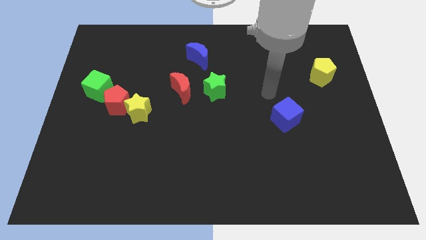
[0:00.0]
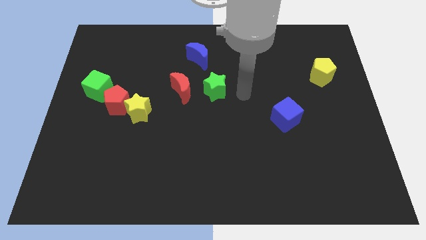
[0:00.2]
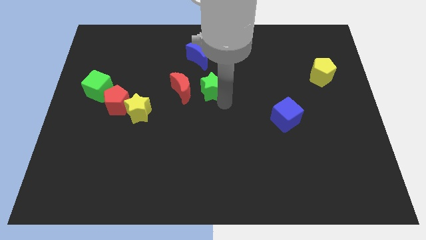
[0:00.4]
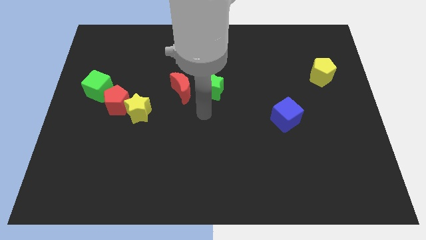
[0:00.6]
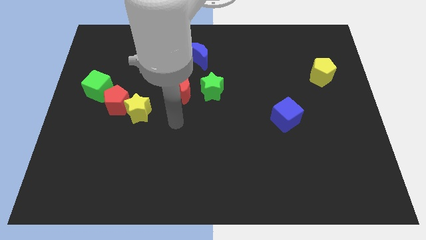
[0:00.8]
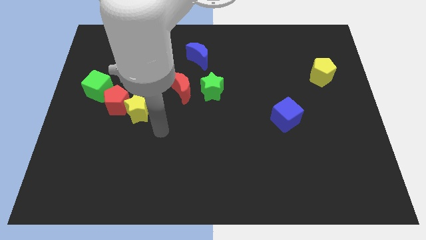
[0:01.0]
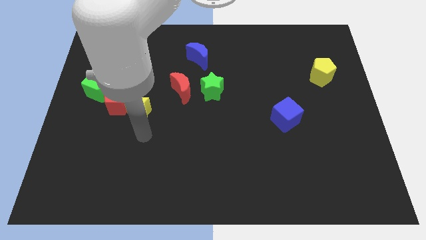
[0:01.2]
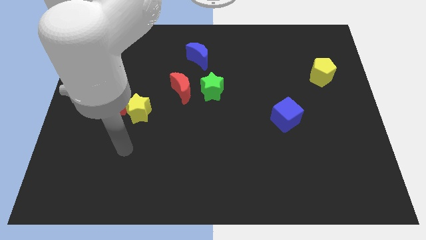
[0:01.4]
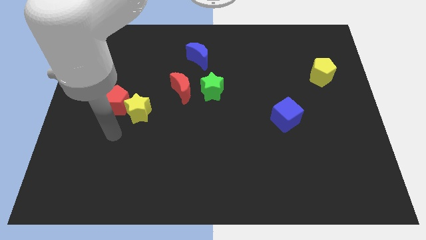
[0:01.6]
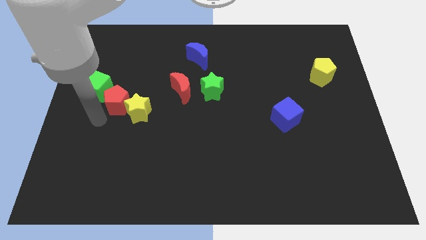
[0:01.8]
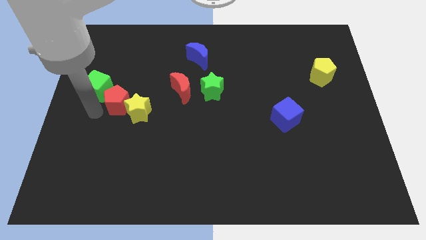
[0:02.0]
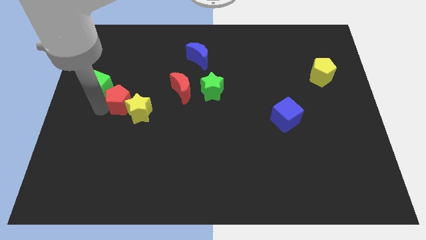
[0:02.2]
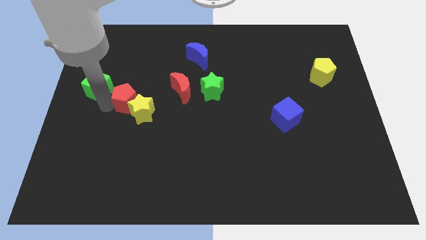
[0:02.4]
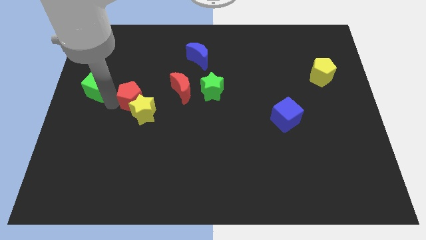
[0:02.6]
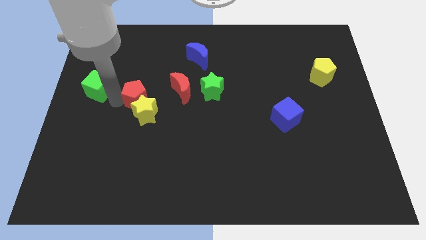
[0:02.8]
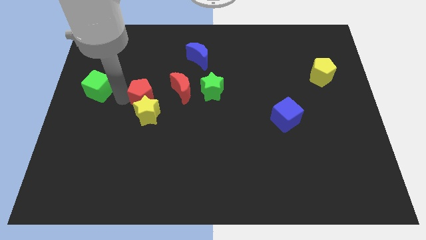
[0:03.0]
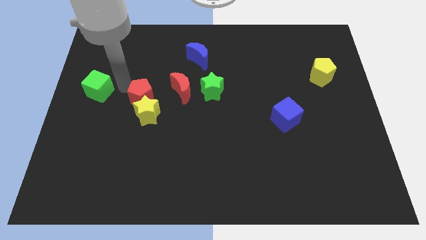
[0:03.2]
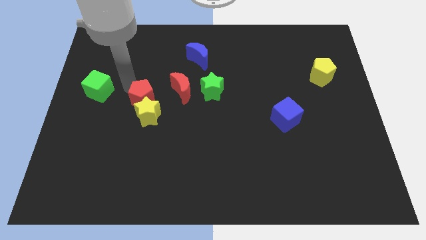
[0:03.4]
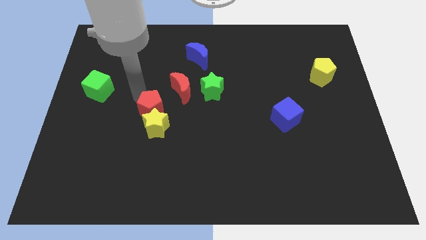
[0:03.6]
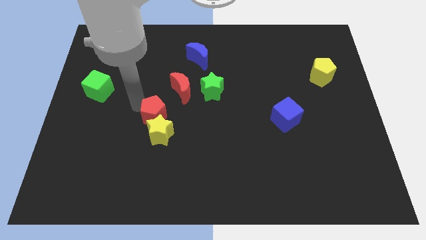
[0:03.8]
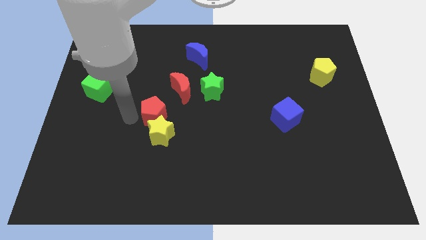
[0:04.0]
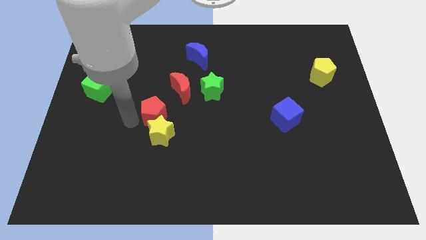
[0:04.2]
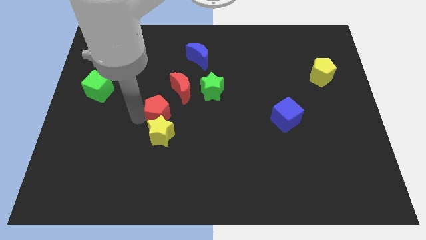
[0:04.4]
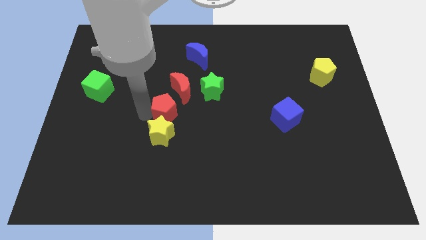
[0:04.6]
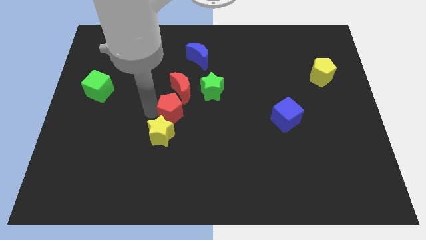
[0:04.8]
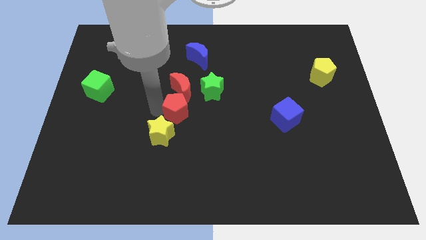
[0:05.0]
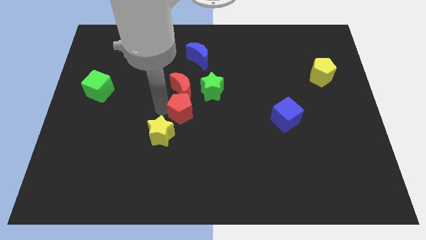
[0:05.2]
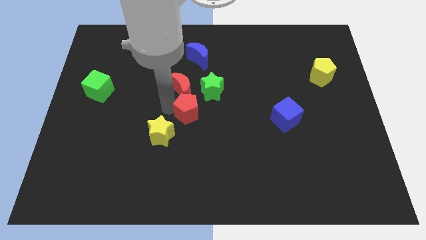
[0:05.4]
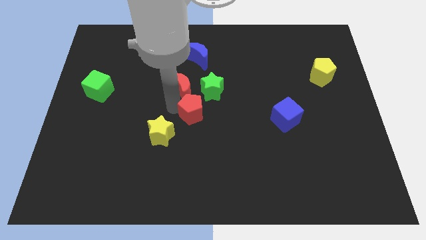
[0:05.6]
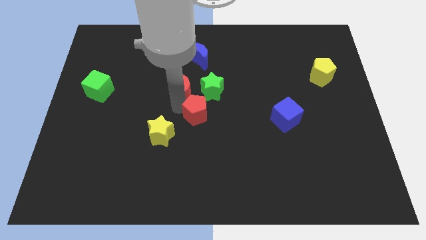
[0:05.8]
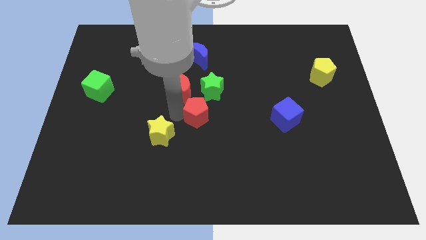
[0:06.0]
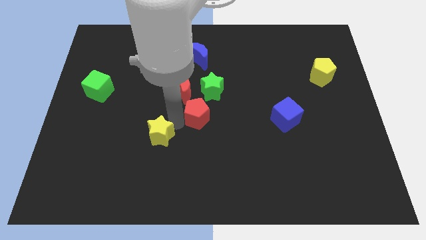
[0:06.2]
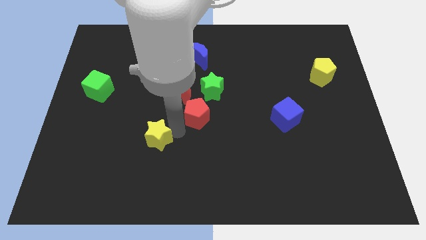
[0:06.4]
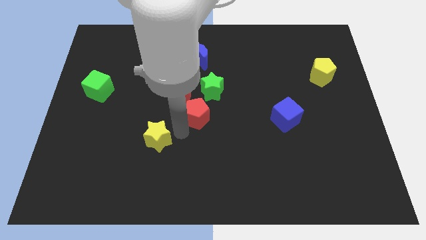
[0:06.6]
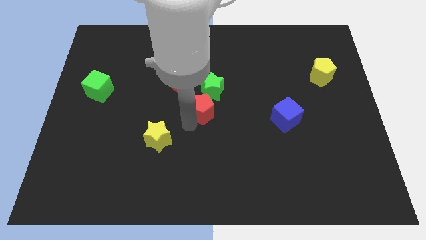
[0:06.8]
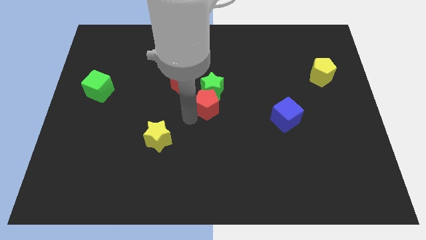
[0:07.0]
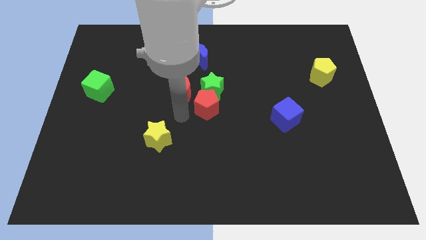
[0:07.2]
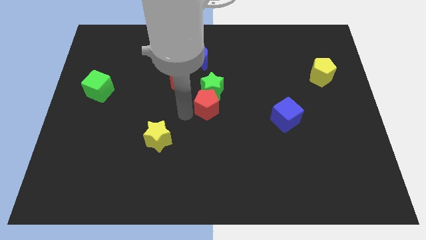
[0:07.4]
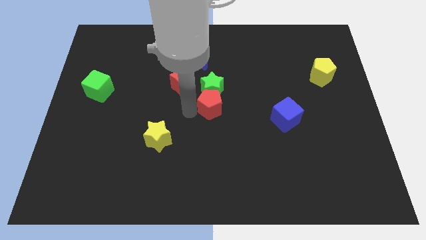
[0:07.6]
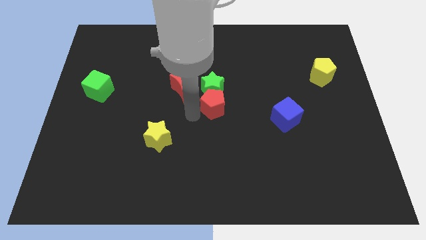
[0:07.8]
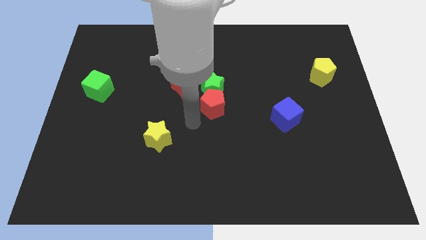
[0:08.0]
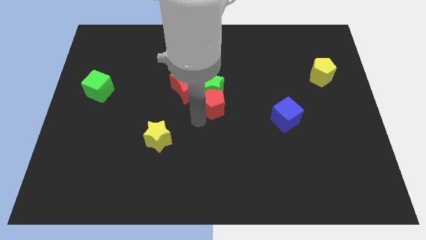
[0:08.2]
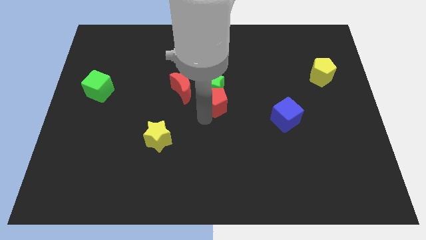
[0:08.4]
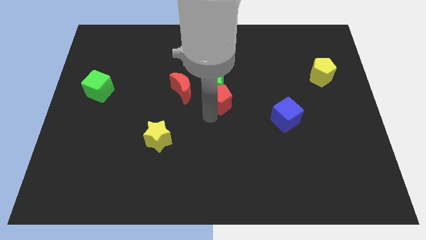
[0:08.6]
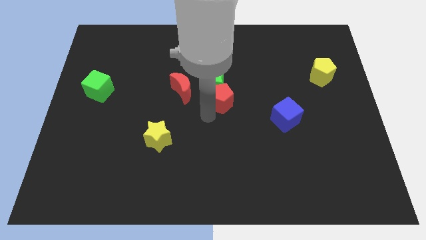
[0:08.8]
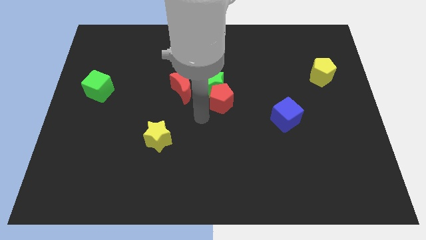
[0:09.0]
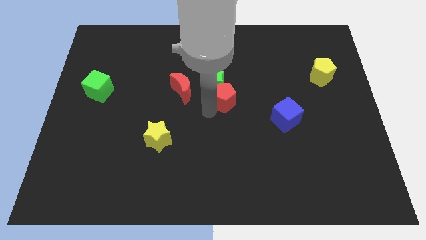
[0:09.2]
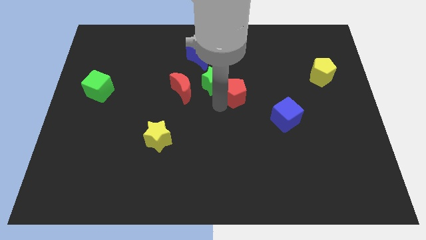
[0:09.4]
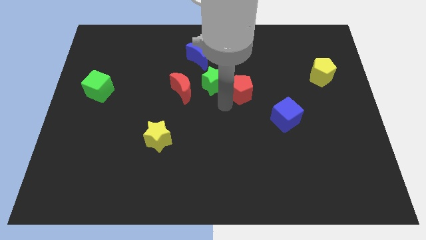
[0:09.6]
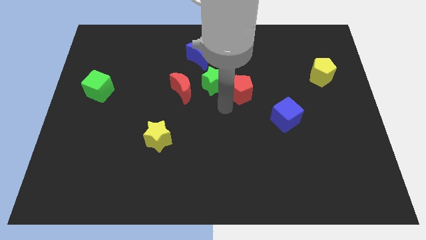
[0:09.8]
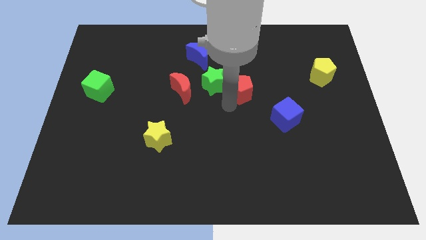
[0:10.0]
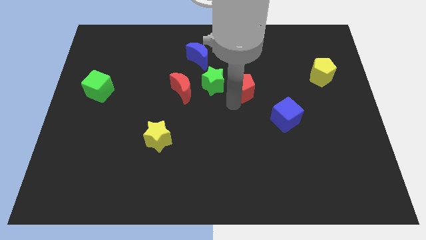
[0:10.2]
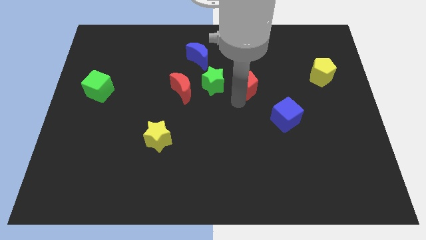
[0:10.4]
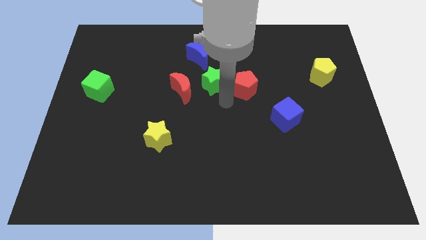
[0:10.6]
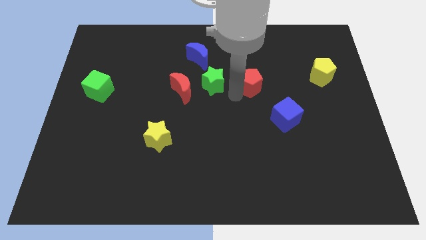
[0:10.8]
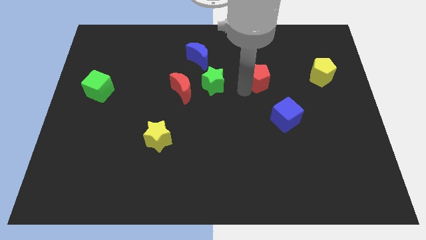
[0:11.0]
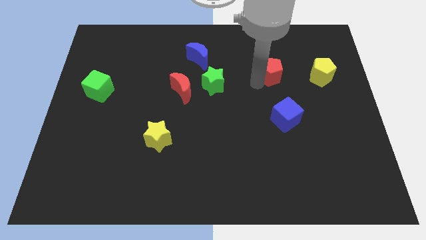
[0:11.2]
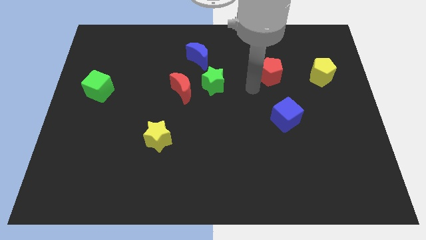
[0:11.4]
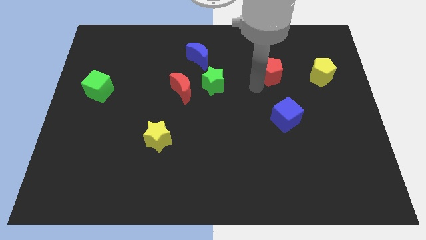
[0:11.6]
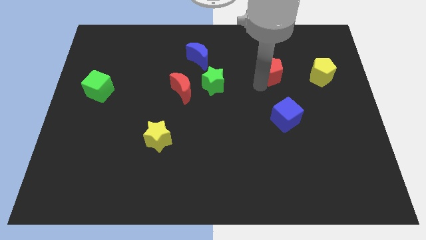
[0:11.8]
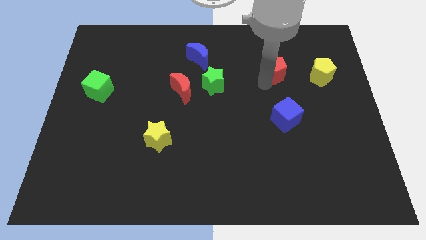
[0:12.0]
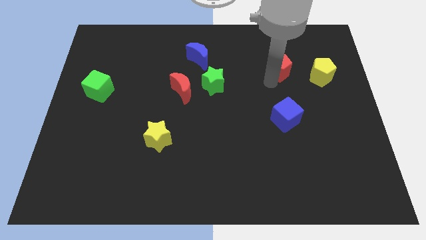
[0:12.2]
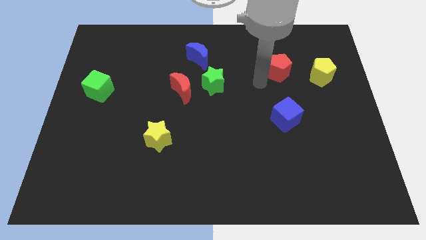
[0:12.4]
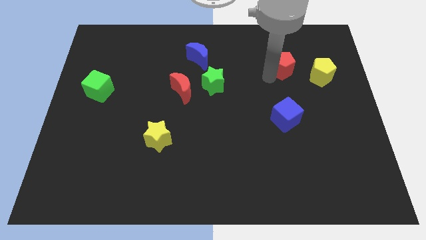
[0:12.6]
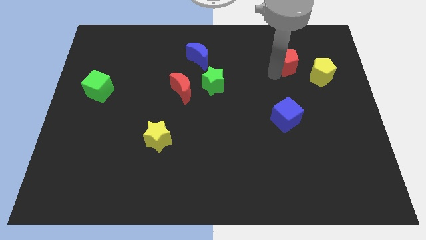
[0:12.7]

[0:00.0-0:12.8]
move the red pentagon to the top left side of the yellow pentagon

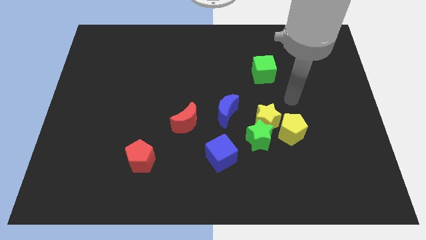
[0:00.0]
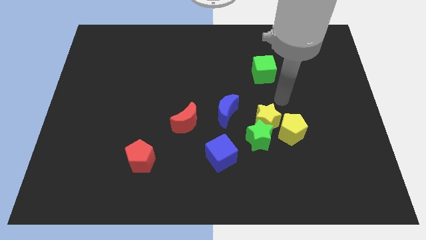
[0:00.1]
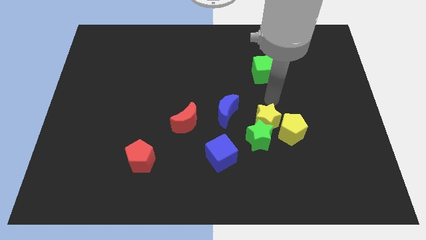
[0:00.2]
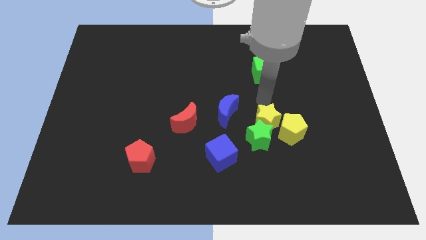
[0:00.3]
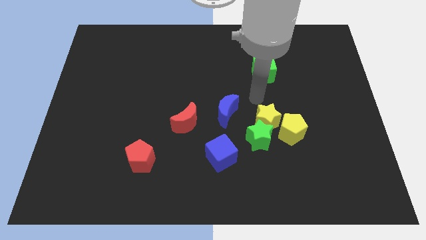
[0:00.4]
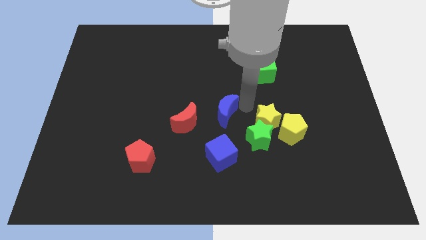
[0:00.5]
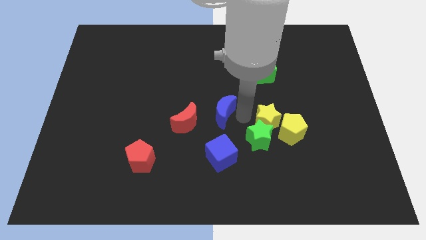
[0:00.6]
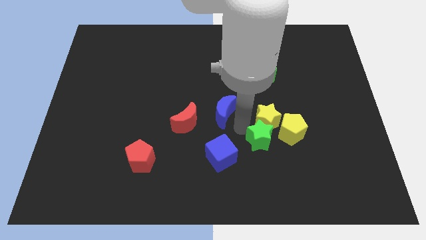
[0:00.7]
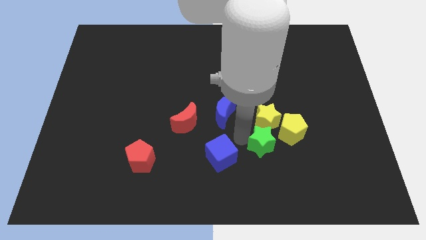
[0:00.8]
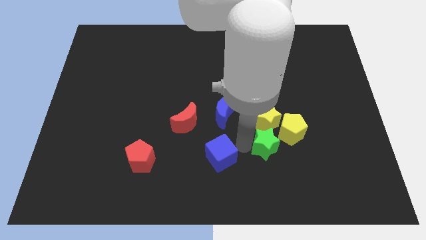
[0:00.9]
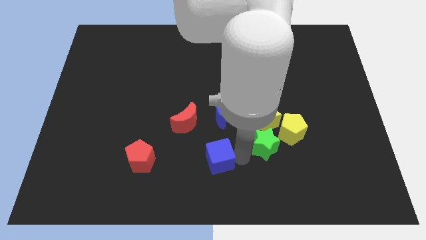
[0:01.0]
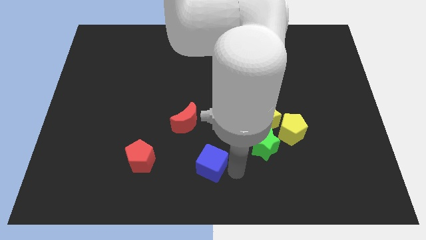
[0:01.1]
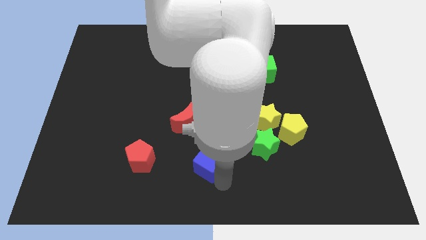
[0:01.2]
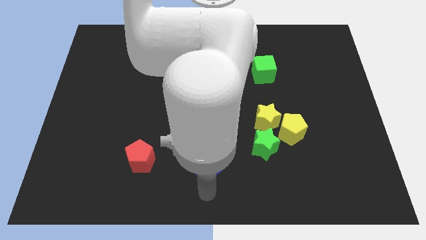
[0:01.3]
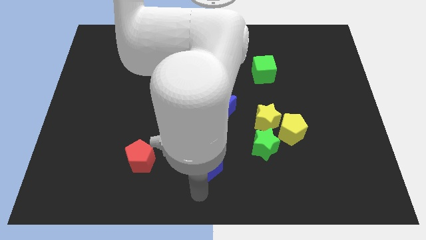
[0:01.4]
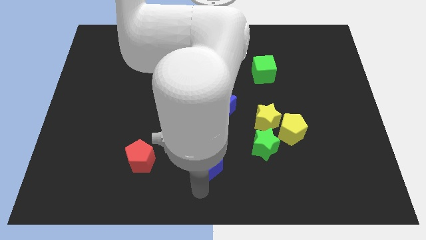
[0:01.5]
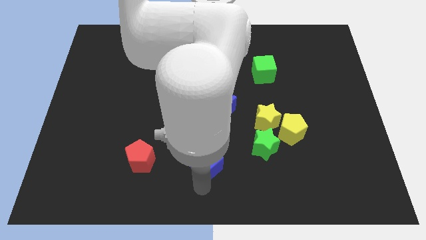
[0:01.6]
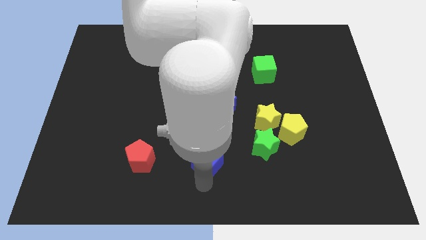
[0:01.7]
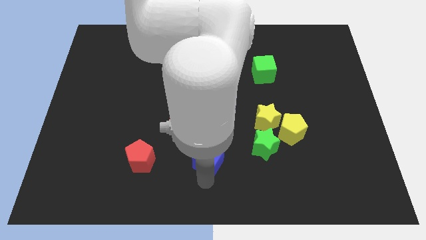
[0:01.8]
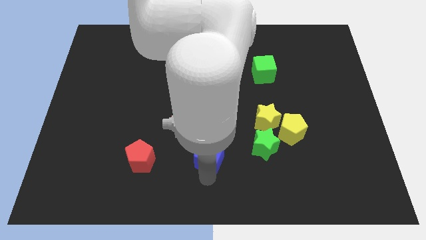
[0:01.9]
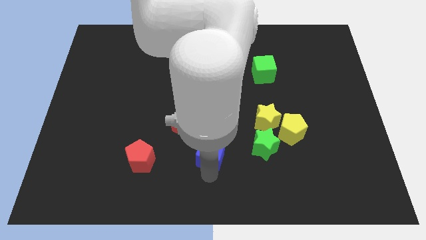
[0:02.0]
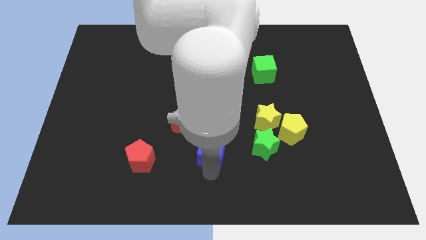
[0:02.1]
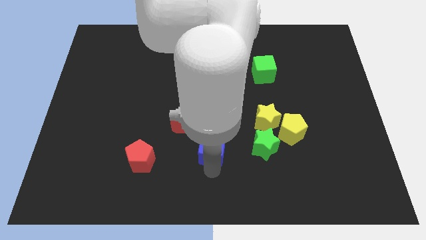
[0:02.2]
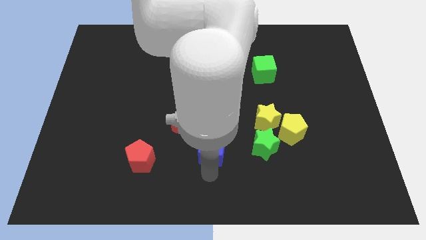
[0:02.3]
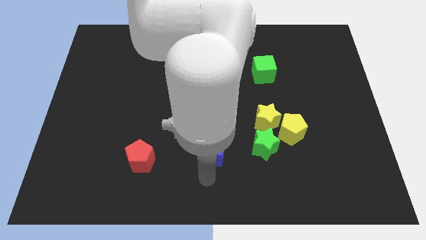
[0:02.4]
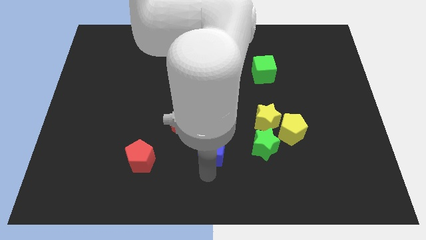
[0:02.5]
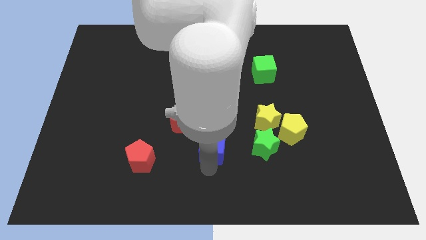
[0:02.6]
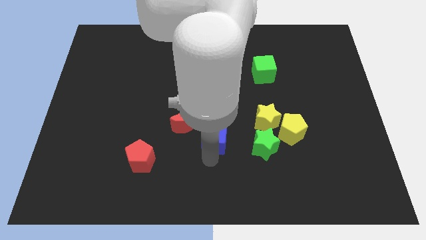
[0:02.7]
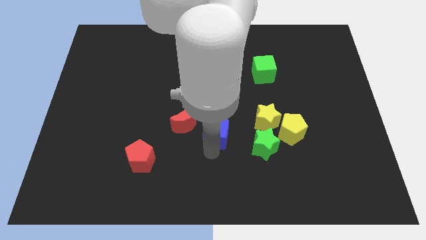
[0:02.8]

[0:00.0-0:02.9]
move the blue cube just left of the yellow star
